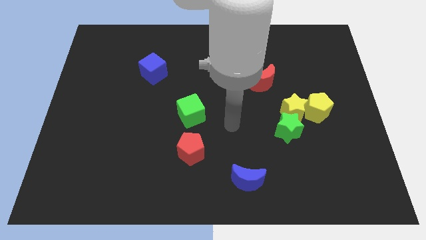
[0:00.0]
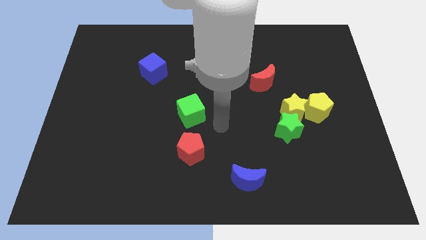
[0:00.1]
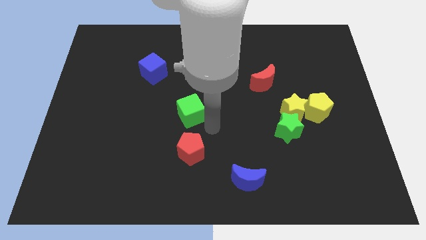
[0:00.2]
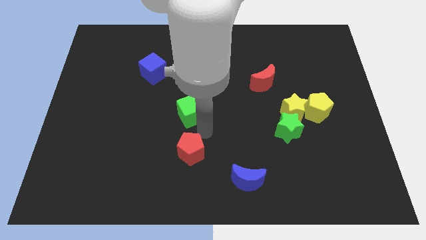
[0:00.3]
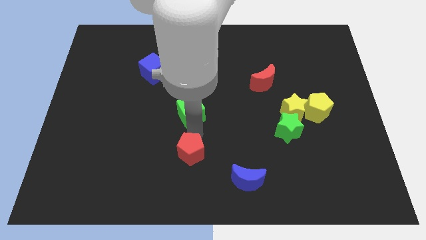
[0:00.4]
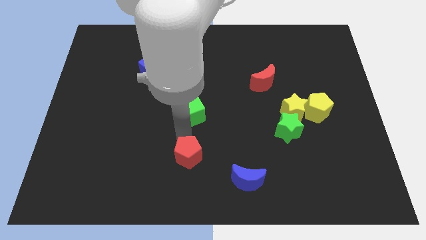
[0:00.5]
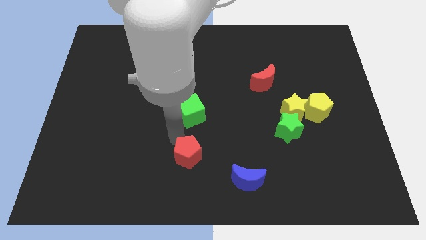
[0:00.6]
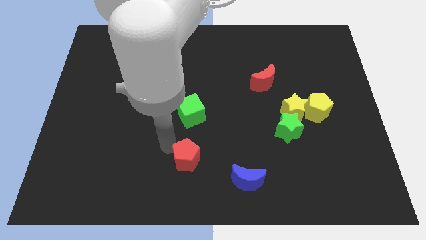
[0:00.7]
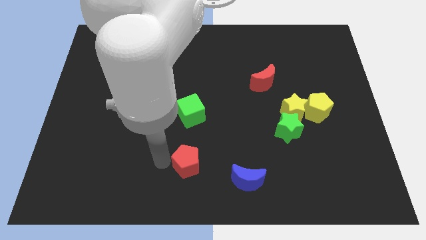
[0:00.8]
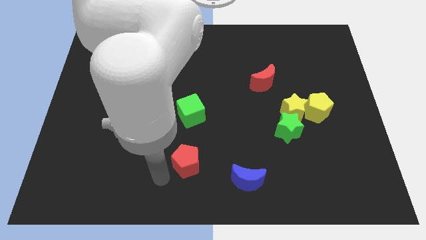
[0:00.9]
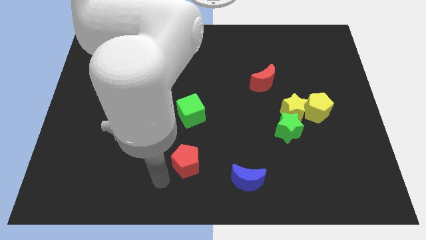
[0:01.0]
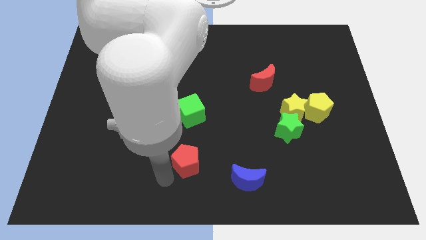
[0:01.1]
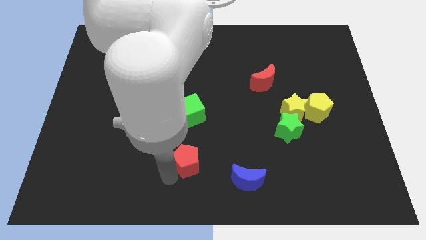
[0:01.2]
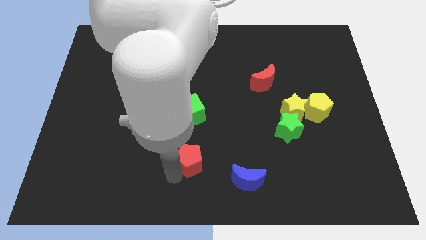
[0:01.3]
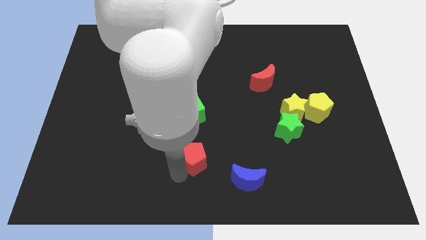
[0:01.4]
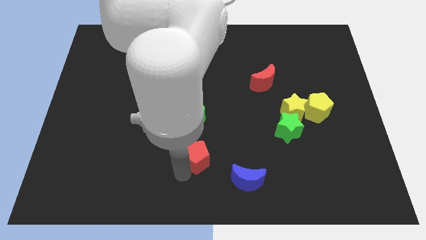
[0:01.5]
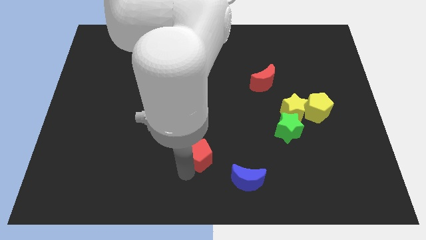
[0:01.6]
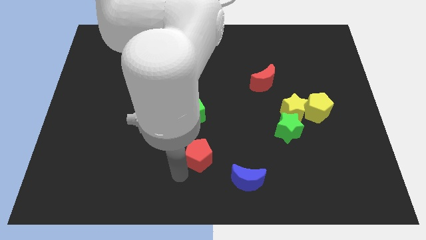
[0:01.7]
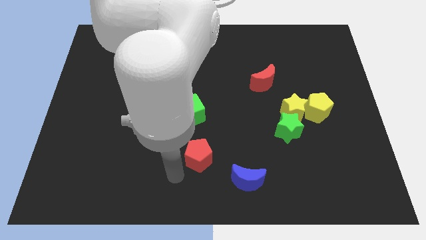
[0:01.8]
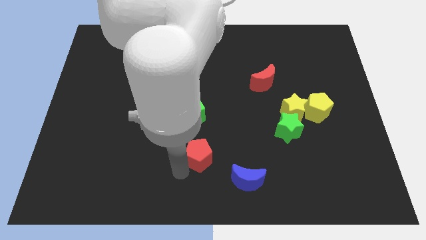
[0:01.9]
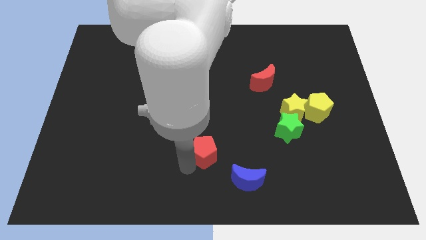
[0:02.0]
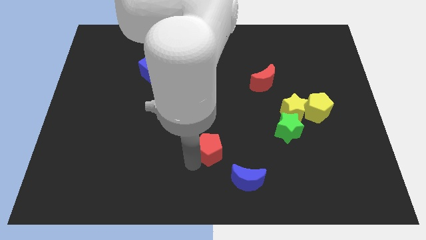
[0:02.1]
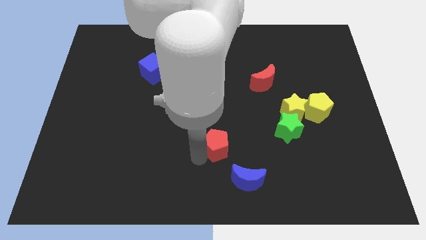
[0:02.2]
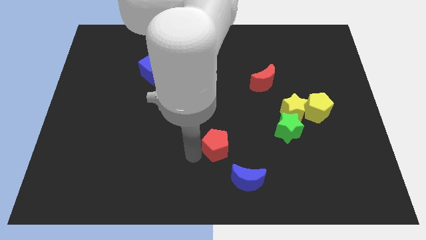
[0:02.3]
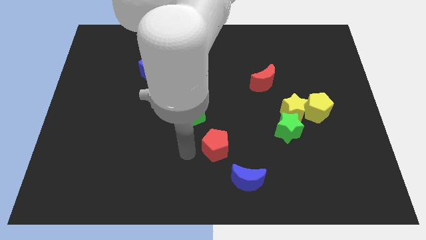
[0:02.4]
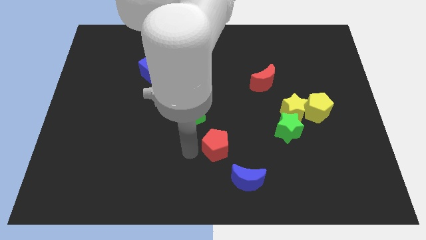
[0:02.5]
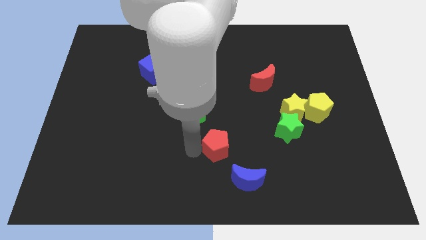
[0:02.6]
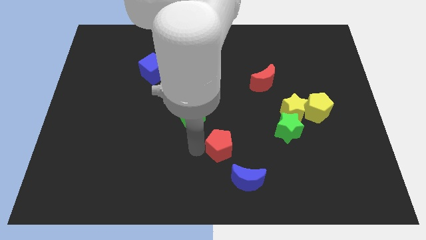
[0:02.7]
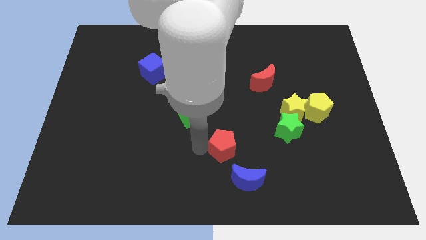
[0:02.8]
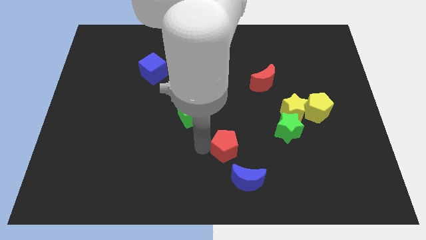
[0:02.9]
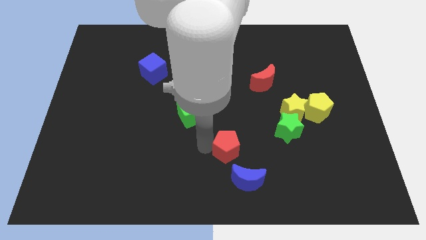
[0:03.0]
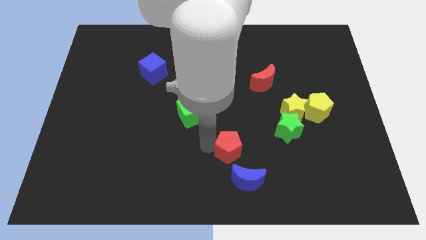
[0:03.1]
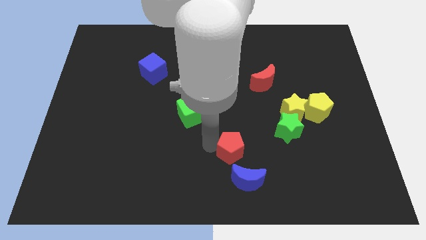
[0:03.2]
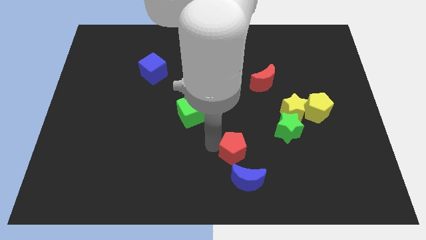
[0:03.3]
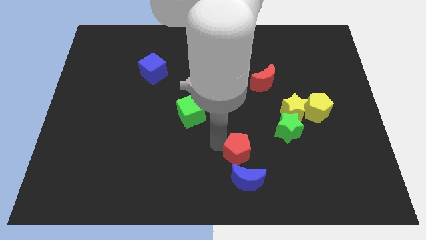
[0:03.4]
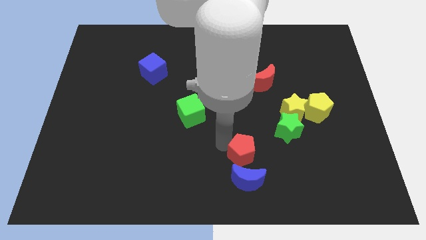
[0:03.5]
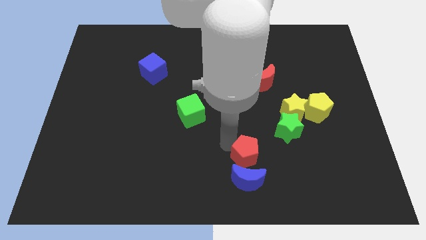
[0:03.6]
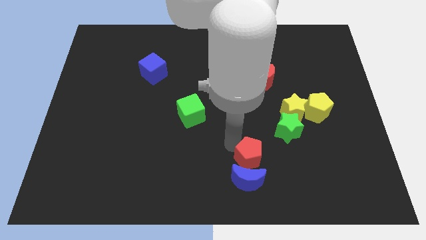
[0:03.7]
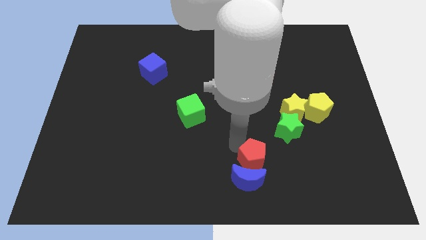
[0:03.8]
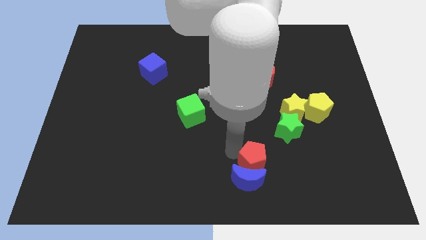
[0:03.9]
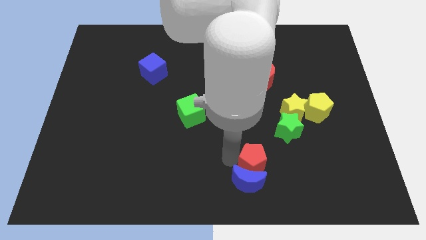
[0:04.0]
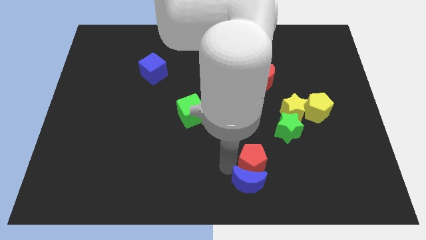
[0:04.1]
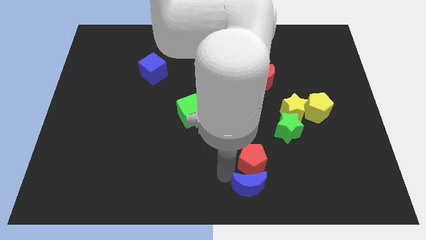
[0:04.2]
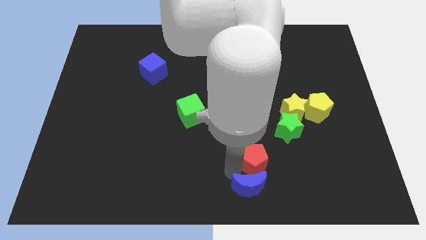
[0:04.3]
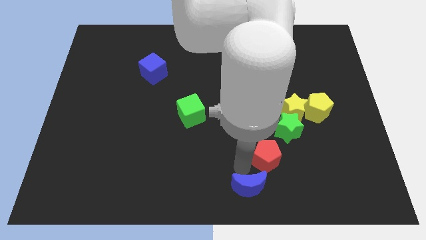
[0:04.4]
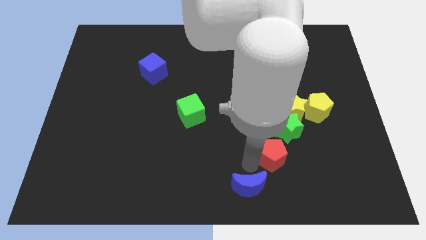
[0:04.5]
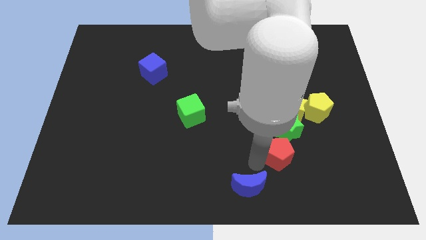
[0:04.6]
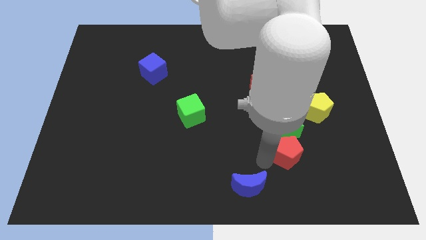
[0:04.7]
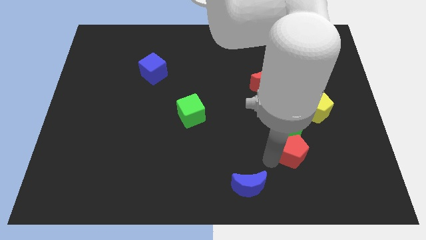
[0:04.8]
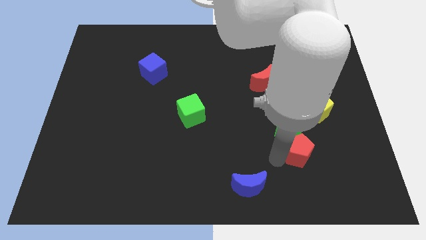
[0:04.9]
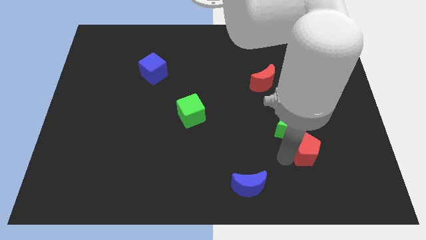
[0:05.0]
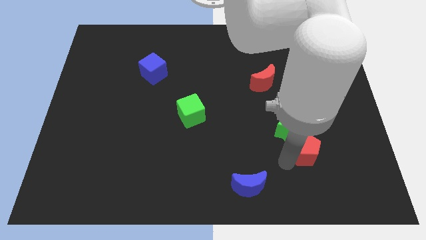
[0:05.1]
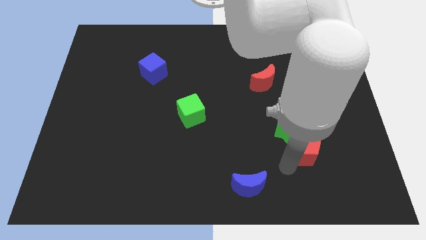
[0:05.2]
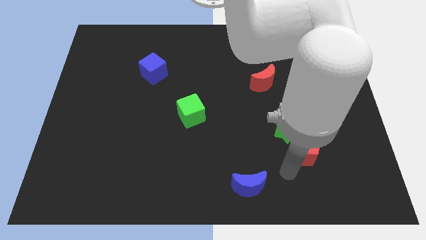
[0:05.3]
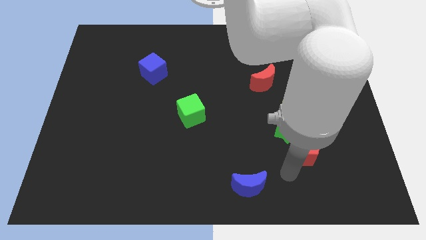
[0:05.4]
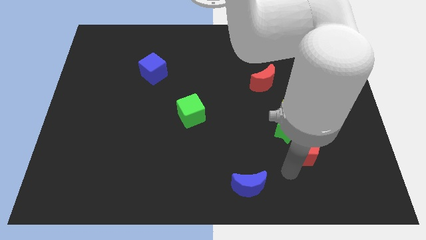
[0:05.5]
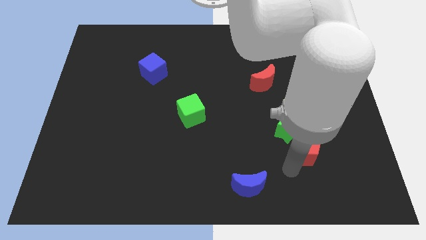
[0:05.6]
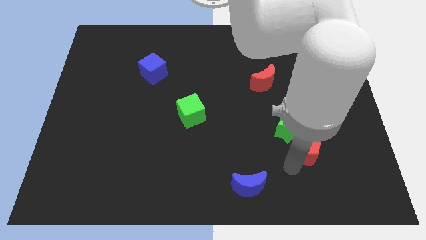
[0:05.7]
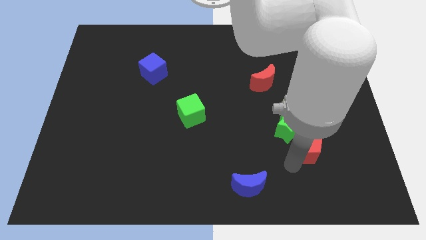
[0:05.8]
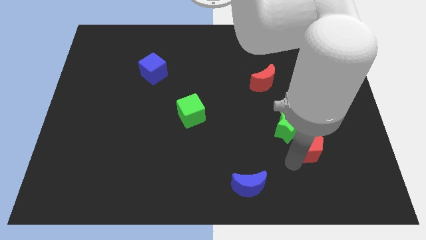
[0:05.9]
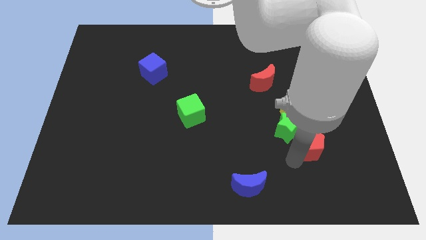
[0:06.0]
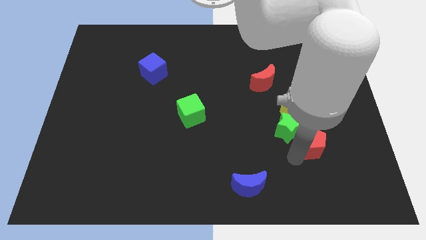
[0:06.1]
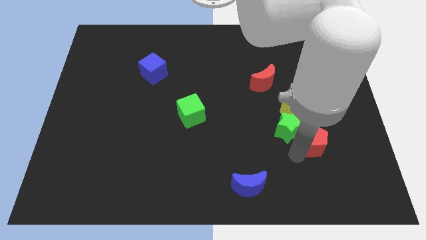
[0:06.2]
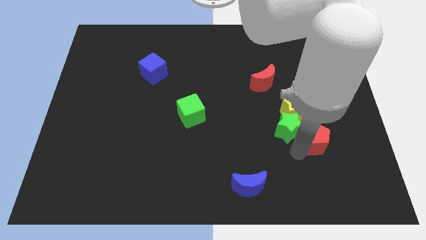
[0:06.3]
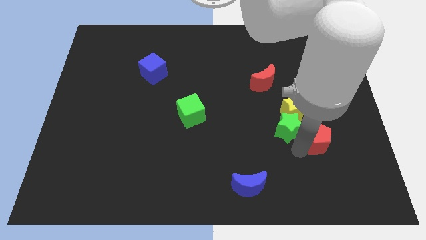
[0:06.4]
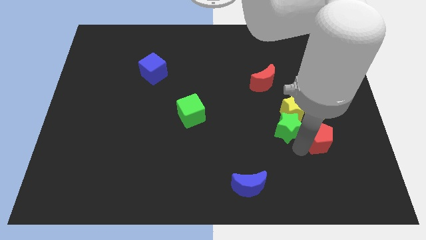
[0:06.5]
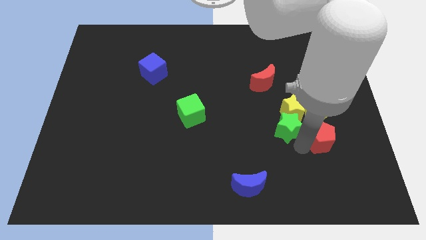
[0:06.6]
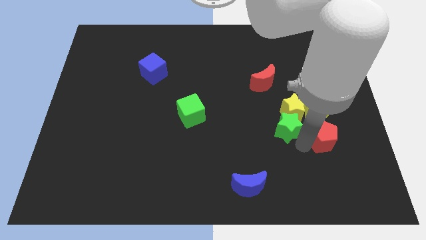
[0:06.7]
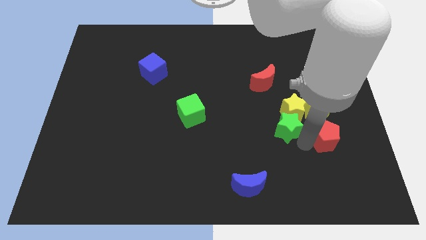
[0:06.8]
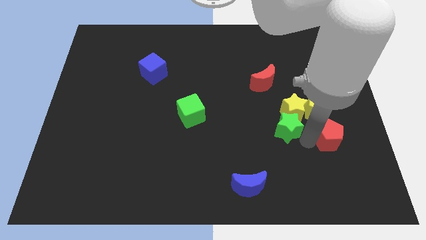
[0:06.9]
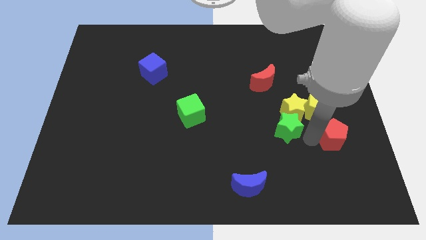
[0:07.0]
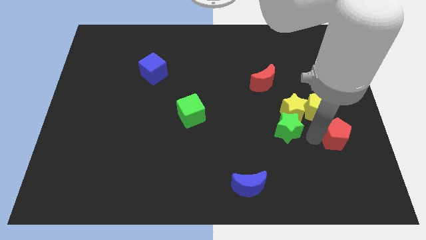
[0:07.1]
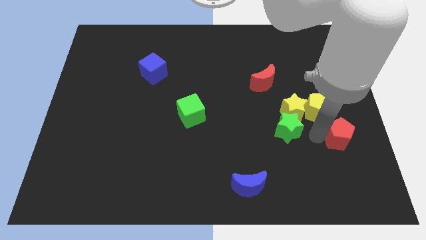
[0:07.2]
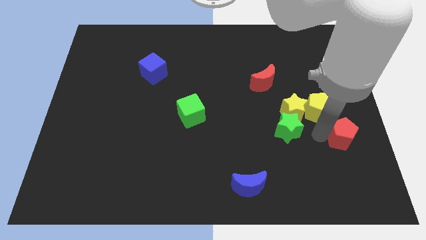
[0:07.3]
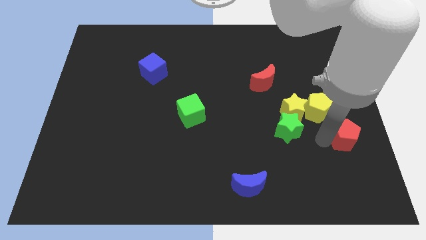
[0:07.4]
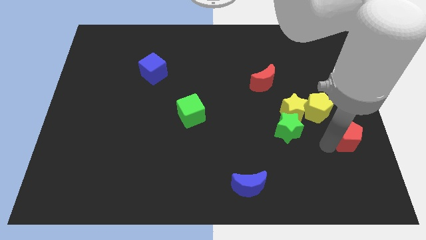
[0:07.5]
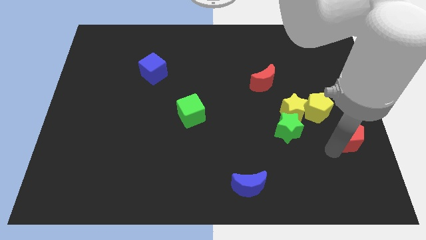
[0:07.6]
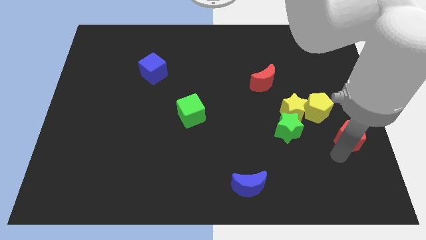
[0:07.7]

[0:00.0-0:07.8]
slide the red pentagon to the right side of the board
